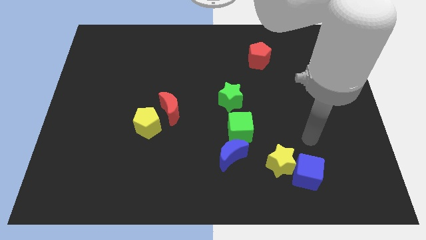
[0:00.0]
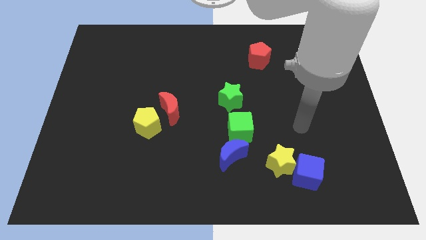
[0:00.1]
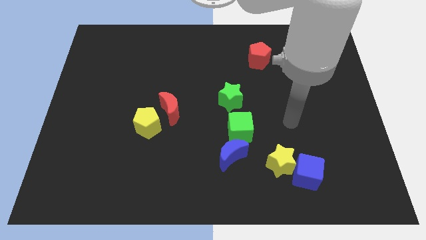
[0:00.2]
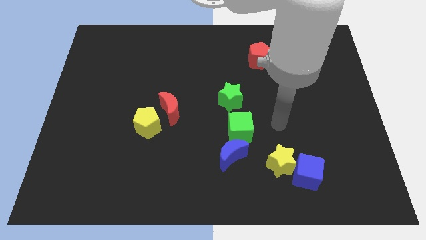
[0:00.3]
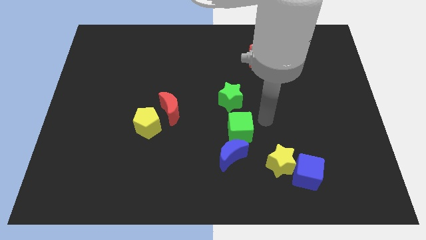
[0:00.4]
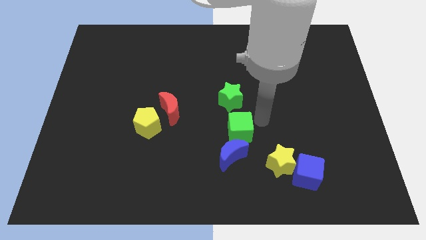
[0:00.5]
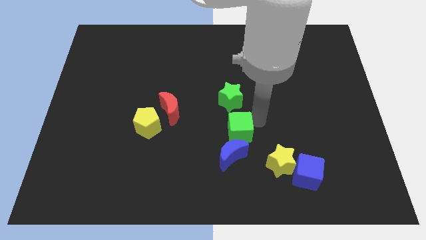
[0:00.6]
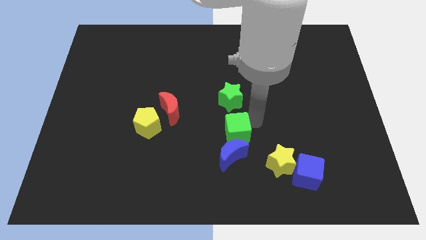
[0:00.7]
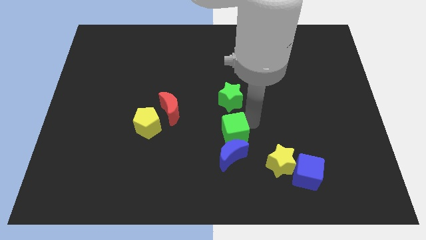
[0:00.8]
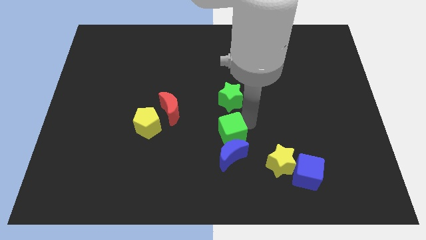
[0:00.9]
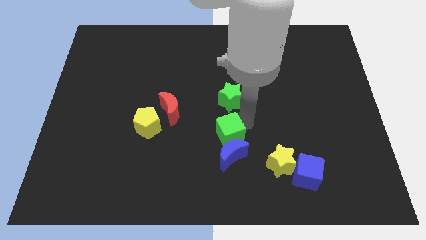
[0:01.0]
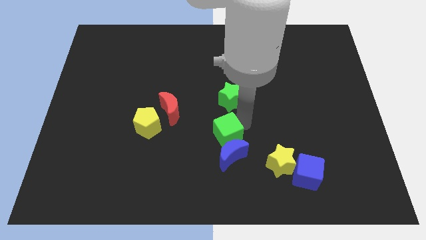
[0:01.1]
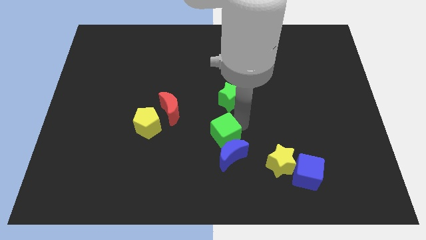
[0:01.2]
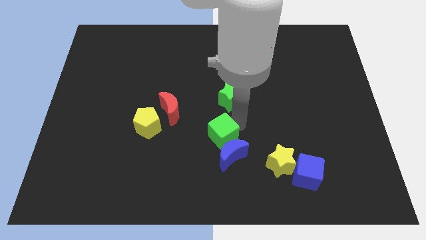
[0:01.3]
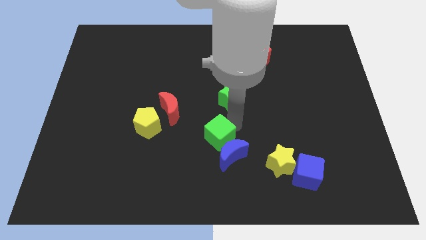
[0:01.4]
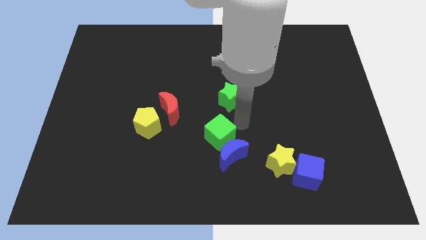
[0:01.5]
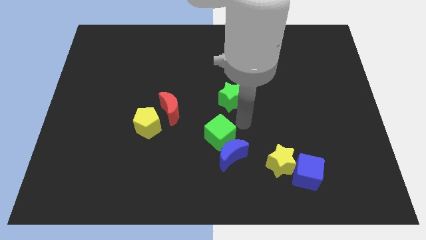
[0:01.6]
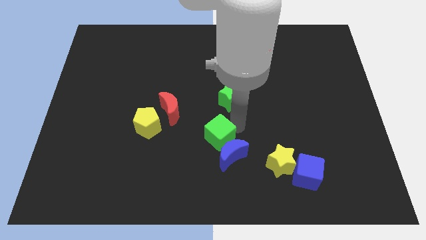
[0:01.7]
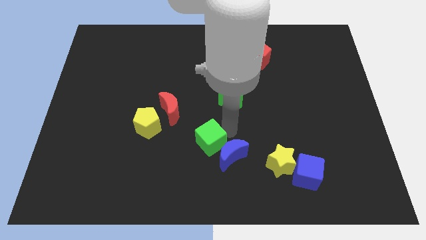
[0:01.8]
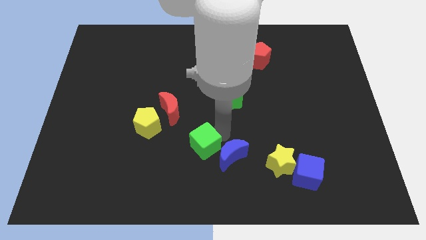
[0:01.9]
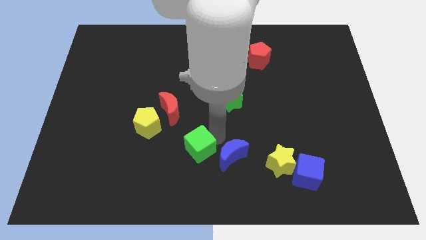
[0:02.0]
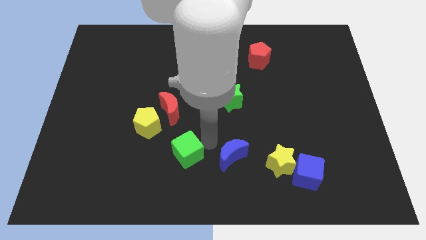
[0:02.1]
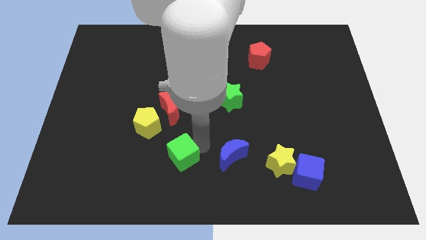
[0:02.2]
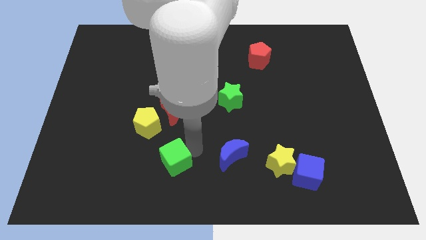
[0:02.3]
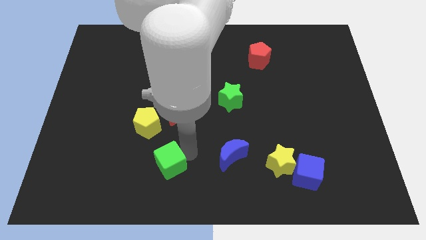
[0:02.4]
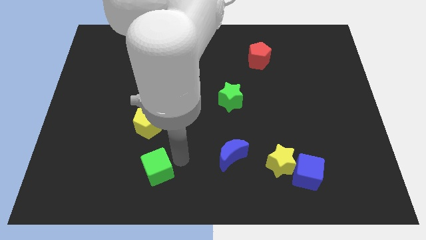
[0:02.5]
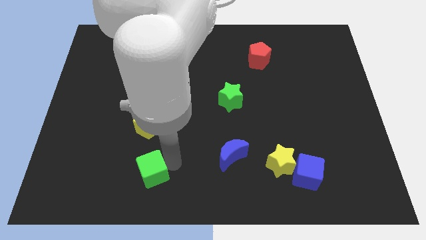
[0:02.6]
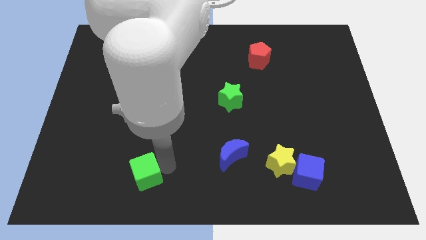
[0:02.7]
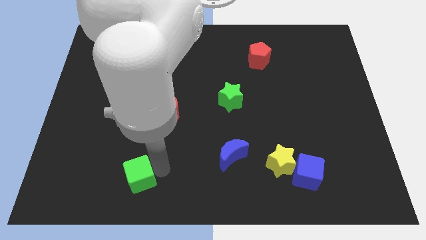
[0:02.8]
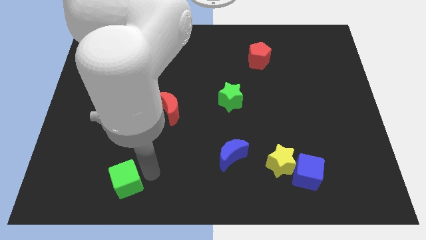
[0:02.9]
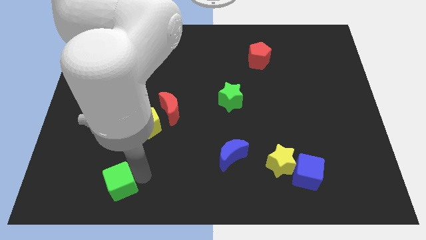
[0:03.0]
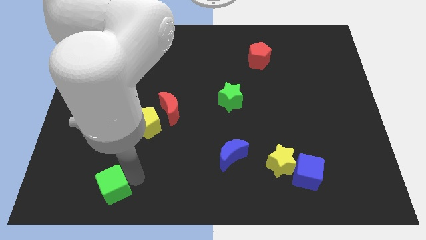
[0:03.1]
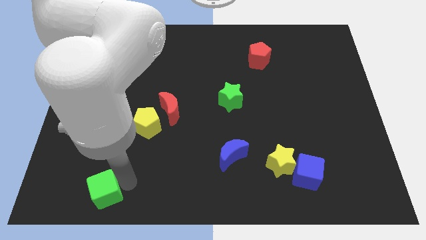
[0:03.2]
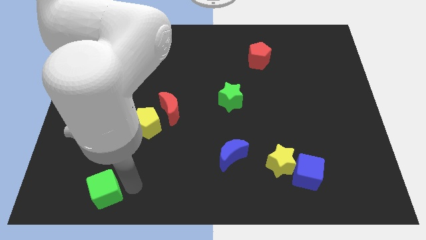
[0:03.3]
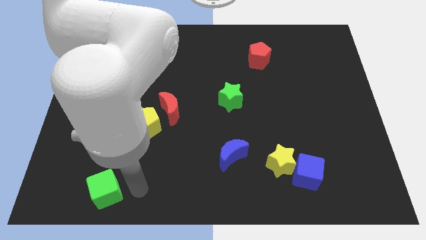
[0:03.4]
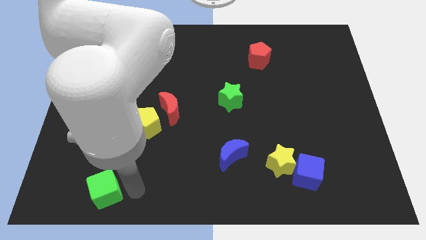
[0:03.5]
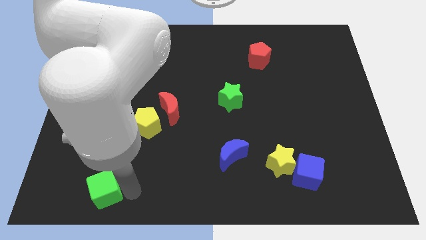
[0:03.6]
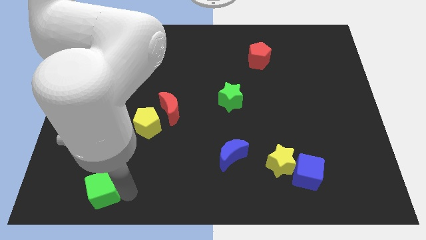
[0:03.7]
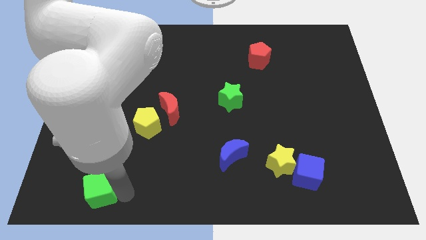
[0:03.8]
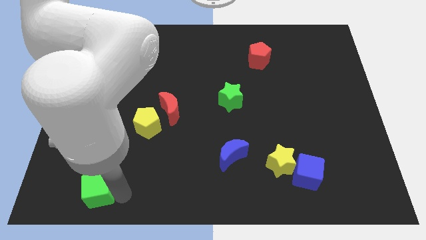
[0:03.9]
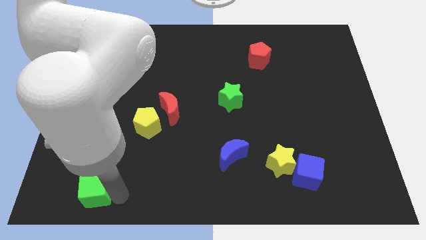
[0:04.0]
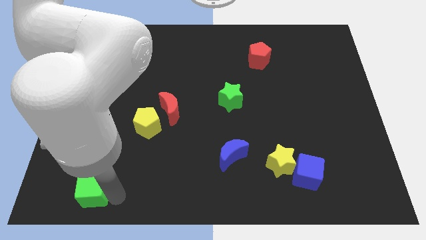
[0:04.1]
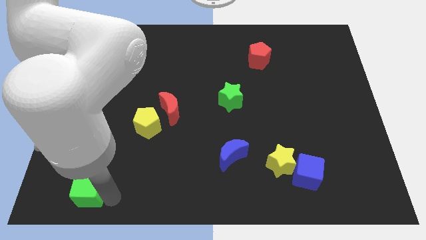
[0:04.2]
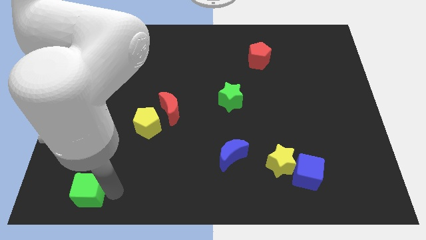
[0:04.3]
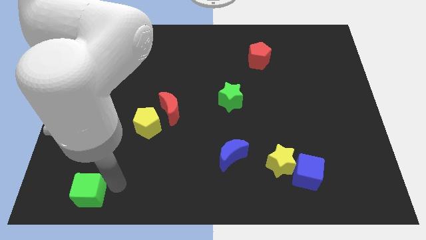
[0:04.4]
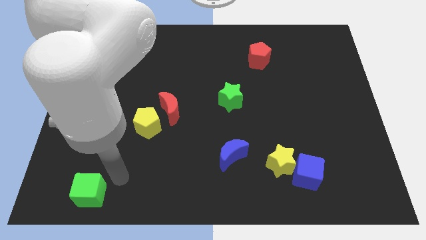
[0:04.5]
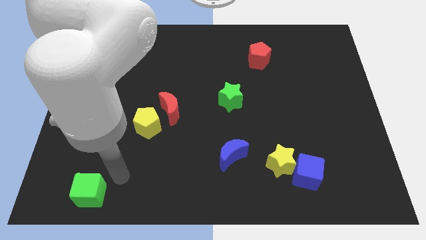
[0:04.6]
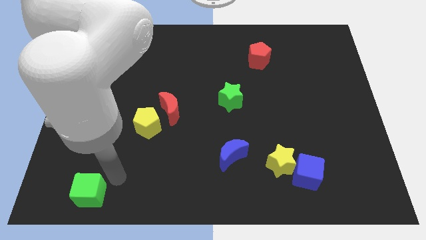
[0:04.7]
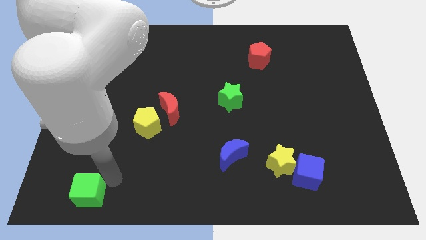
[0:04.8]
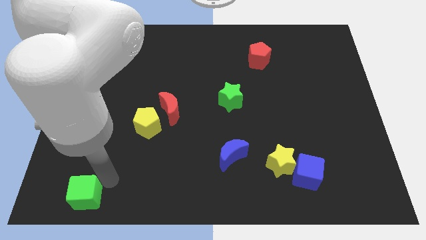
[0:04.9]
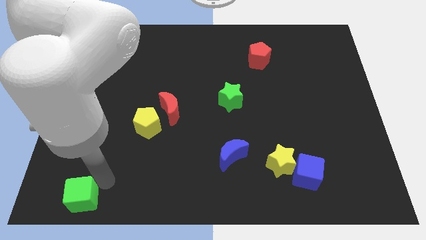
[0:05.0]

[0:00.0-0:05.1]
put the green cube to the bottom left of the board

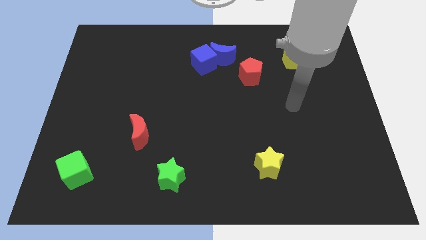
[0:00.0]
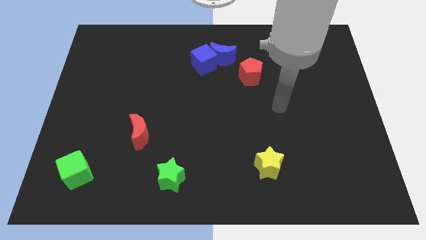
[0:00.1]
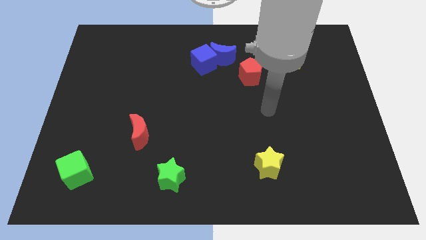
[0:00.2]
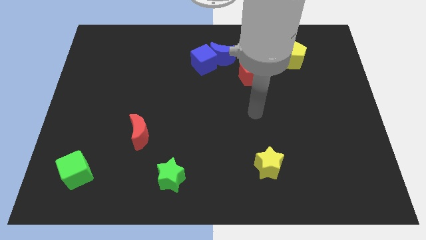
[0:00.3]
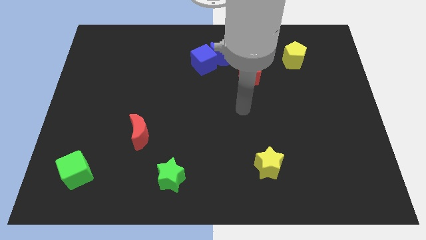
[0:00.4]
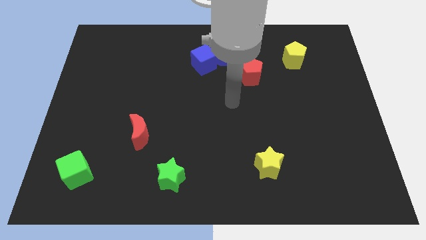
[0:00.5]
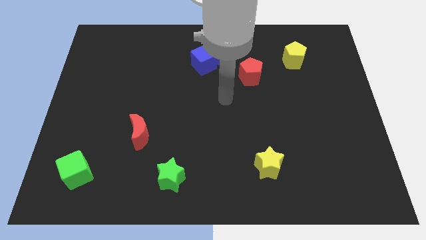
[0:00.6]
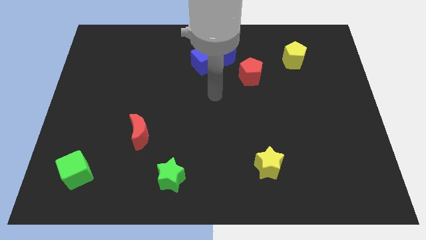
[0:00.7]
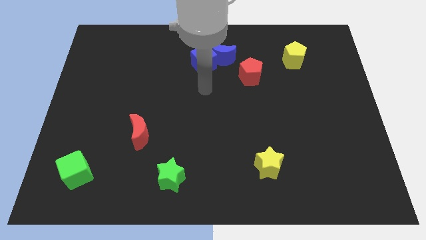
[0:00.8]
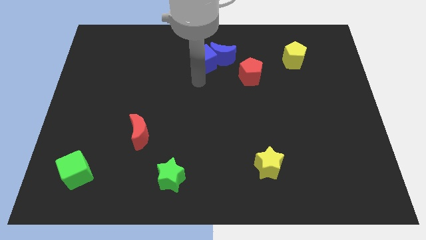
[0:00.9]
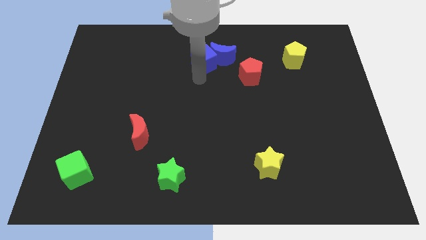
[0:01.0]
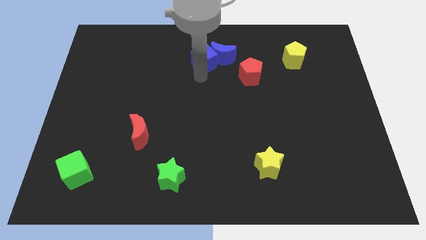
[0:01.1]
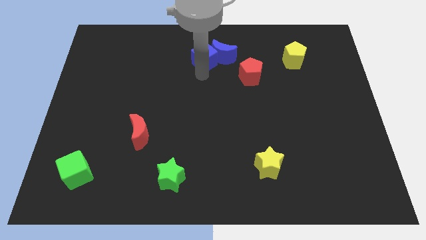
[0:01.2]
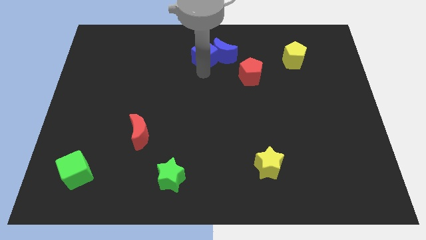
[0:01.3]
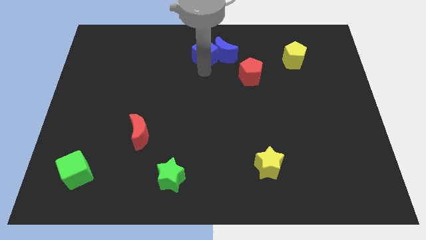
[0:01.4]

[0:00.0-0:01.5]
move the blue cube to the top

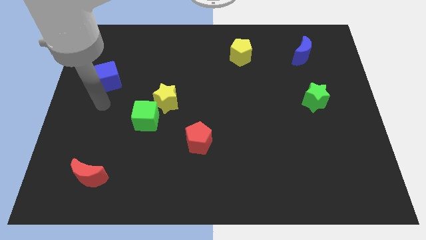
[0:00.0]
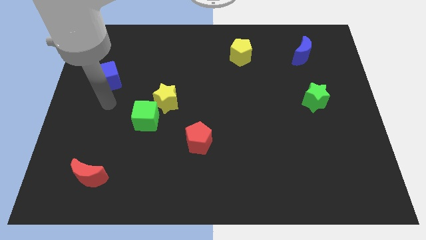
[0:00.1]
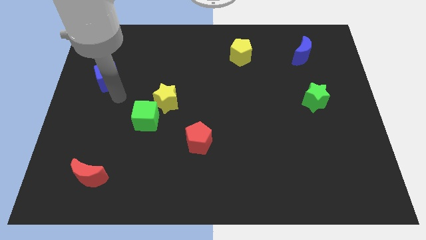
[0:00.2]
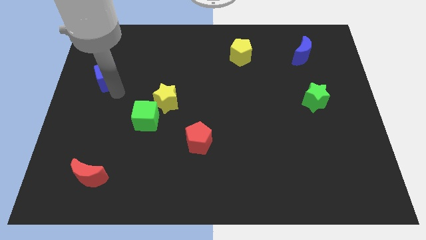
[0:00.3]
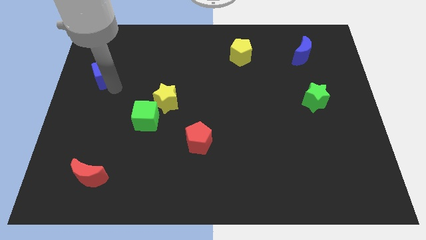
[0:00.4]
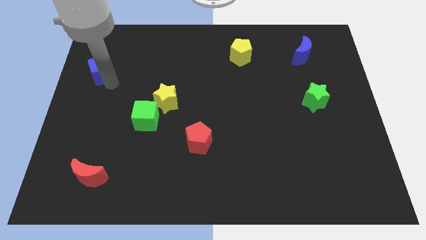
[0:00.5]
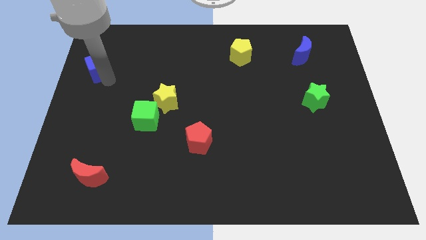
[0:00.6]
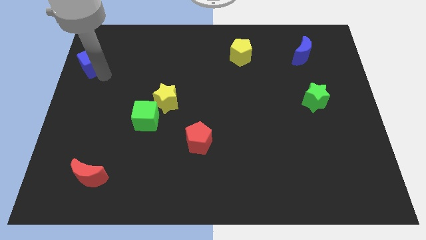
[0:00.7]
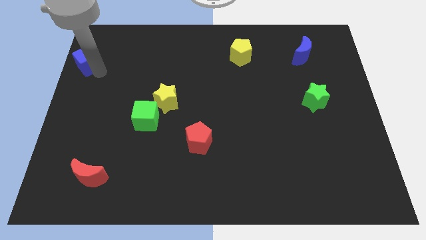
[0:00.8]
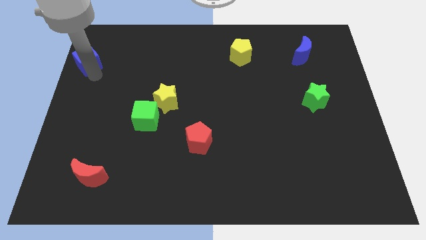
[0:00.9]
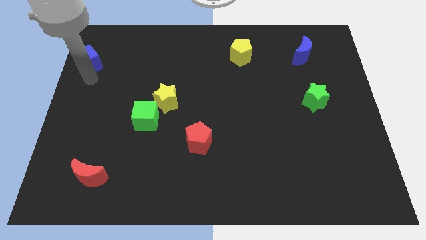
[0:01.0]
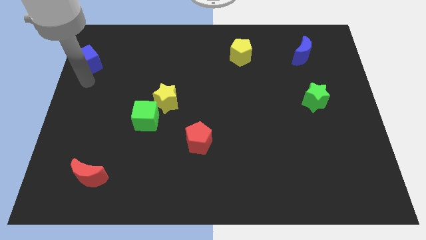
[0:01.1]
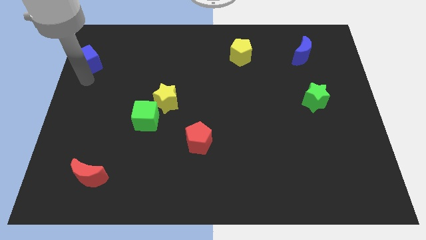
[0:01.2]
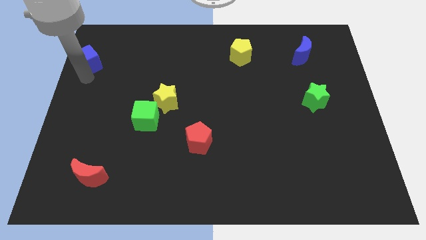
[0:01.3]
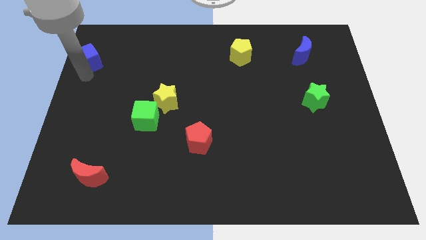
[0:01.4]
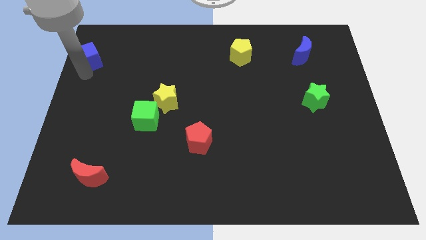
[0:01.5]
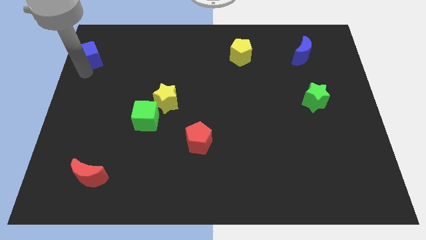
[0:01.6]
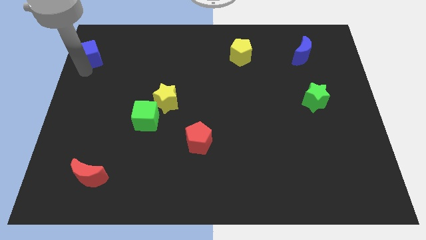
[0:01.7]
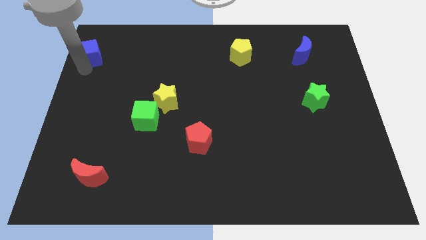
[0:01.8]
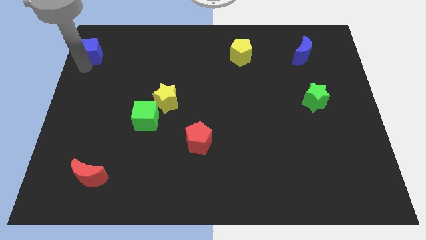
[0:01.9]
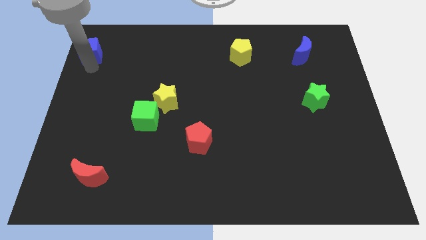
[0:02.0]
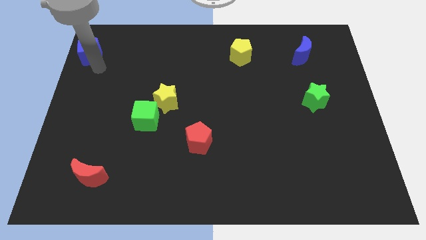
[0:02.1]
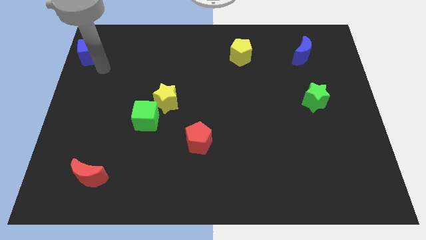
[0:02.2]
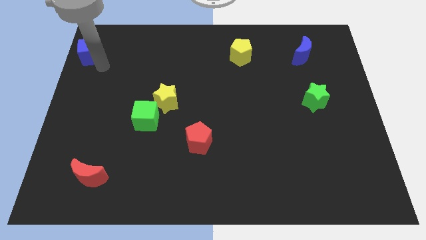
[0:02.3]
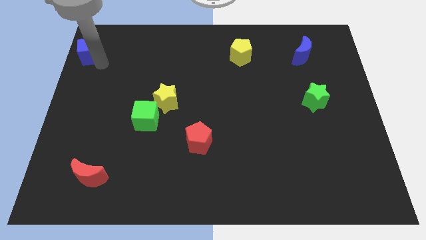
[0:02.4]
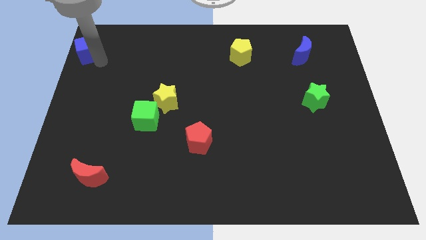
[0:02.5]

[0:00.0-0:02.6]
put the blue cube to the top left of the board
